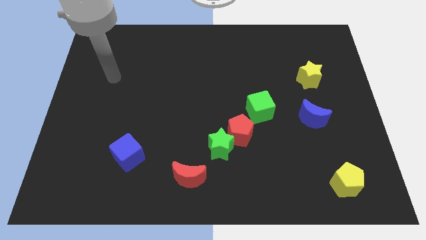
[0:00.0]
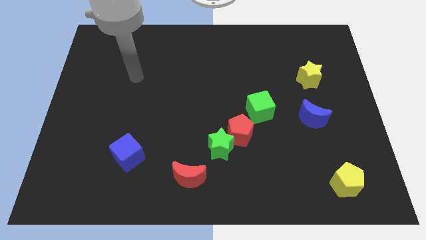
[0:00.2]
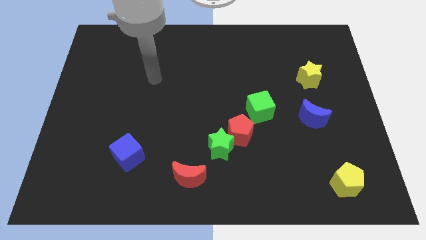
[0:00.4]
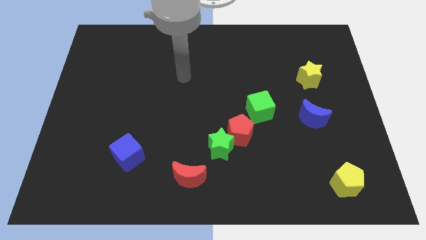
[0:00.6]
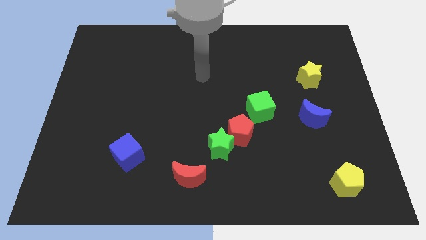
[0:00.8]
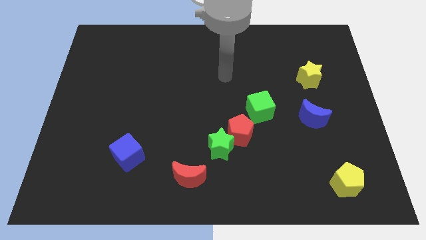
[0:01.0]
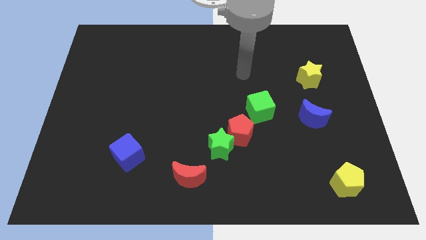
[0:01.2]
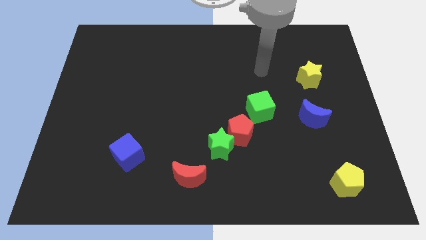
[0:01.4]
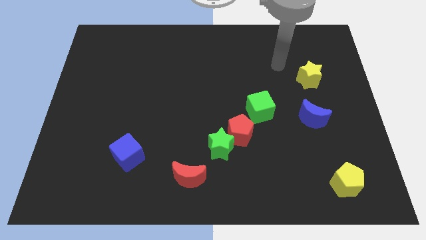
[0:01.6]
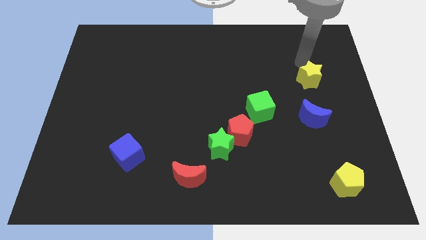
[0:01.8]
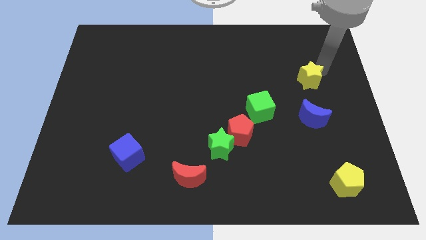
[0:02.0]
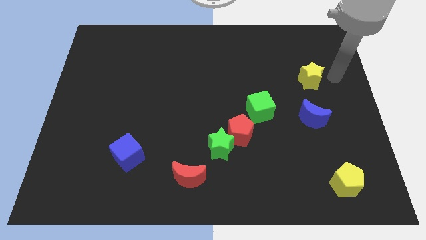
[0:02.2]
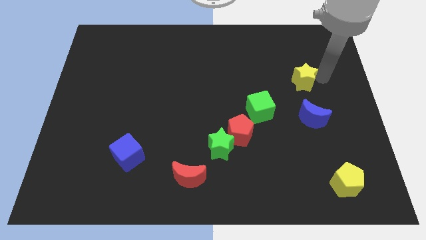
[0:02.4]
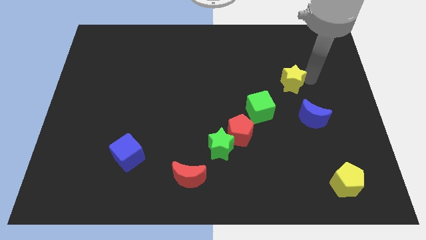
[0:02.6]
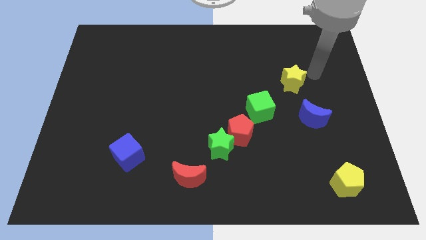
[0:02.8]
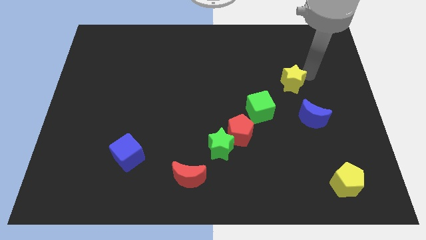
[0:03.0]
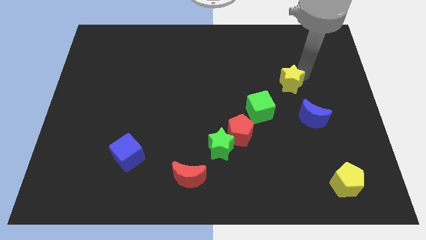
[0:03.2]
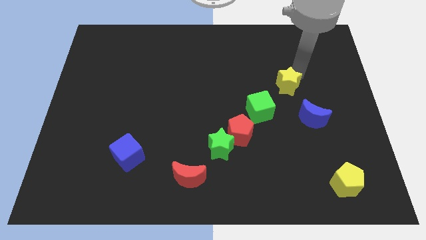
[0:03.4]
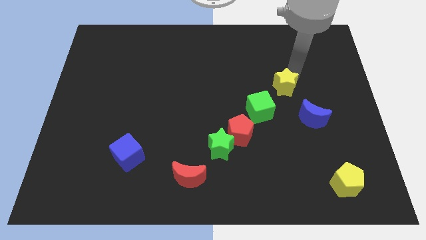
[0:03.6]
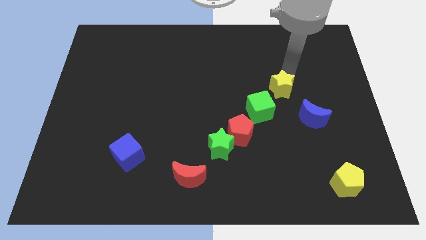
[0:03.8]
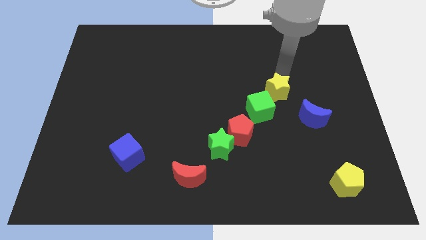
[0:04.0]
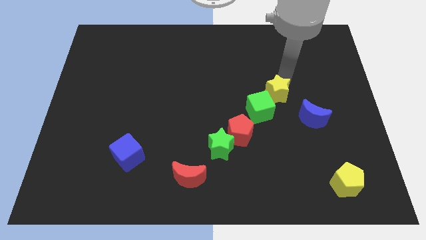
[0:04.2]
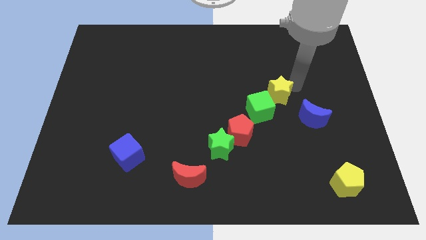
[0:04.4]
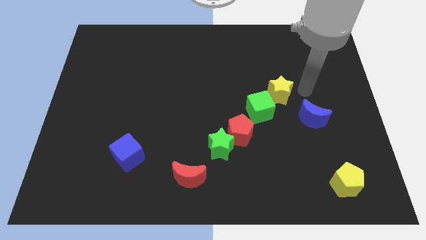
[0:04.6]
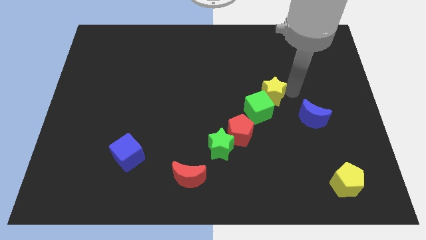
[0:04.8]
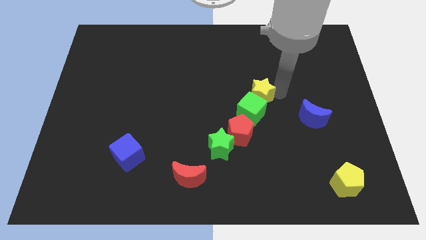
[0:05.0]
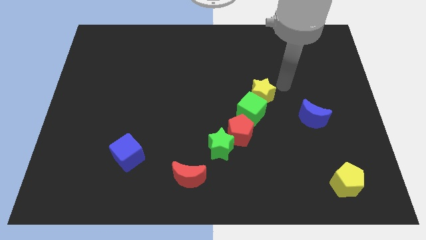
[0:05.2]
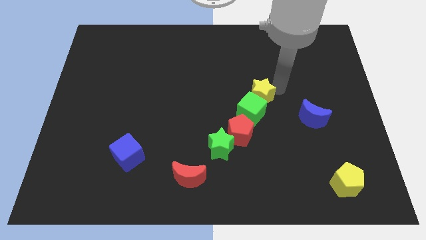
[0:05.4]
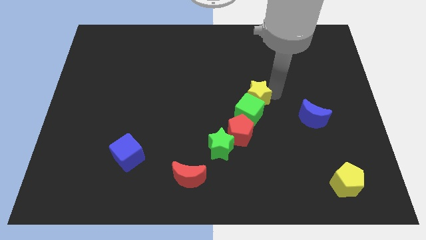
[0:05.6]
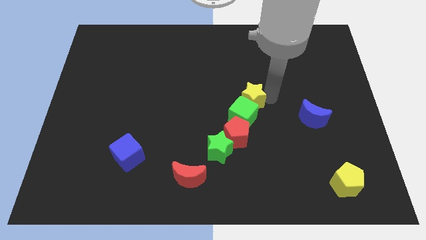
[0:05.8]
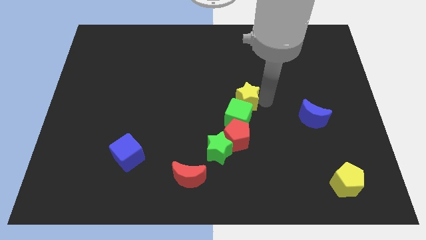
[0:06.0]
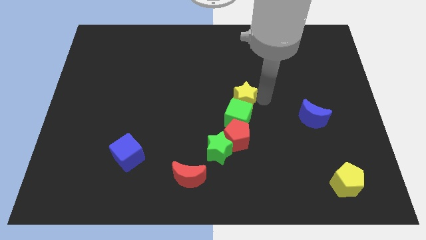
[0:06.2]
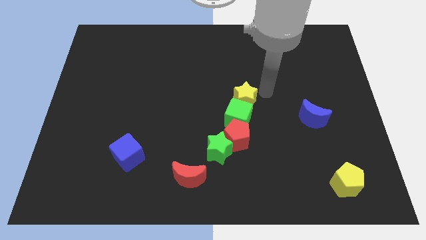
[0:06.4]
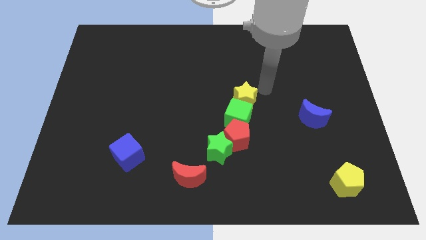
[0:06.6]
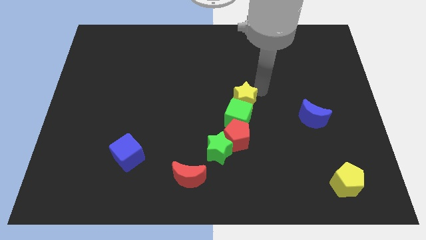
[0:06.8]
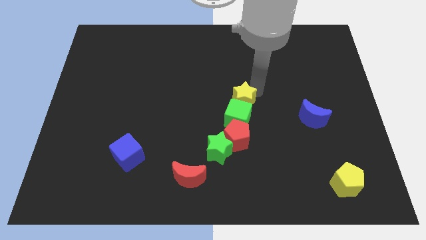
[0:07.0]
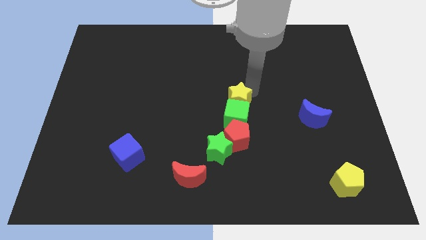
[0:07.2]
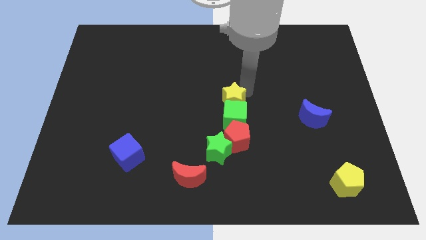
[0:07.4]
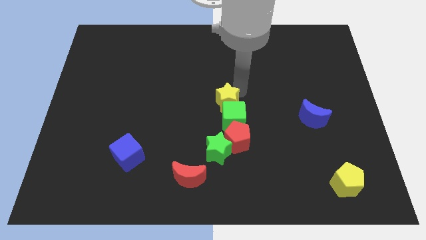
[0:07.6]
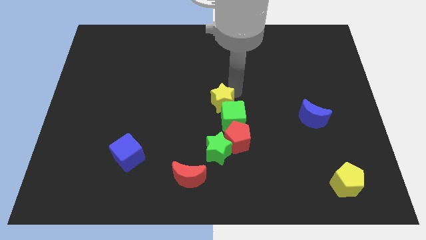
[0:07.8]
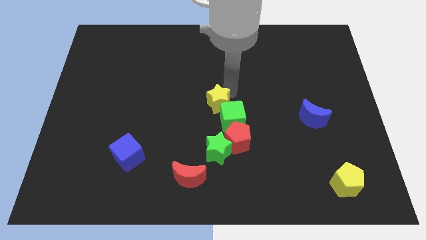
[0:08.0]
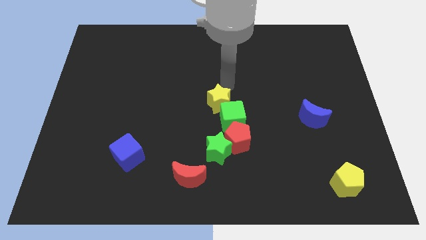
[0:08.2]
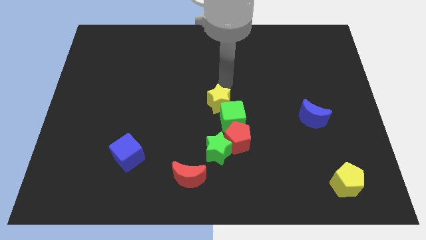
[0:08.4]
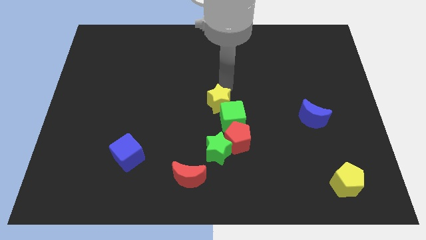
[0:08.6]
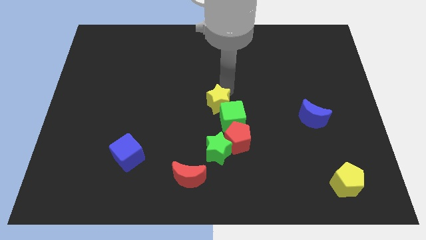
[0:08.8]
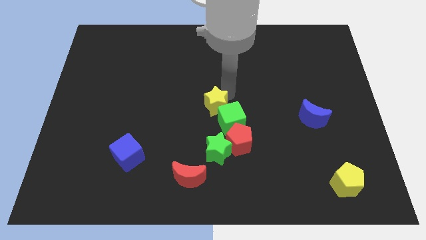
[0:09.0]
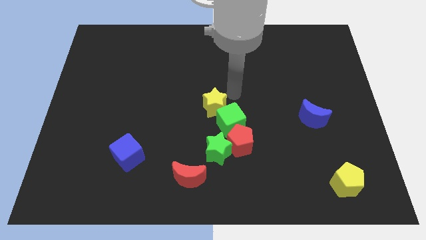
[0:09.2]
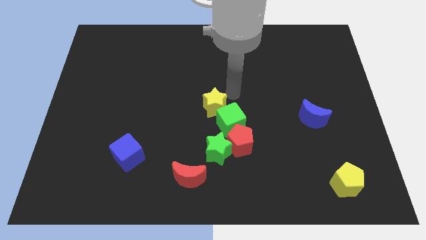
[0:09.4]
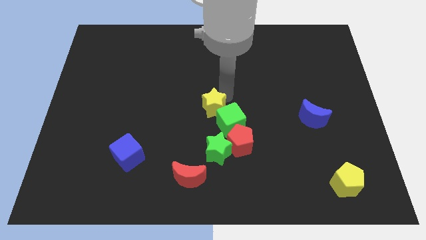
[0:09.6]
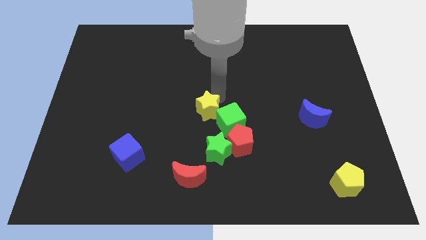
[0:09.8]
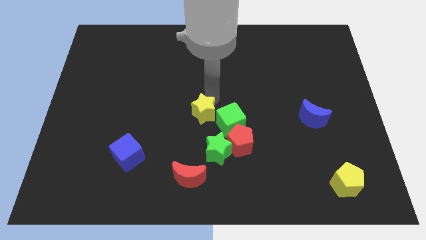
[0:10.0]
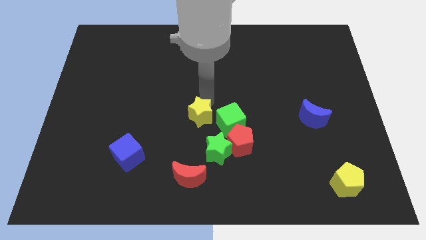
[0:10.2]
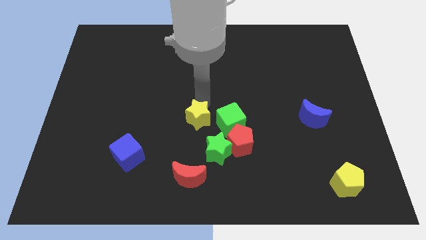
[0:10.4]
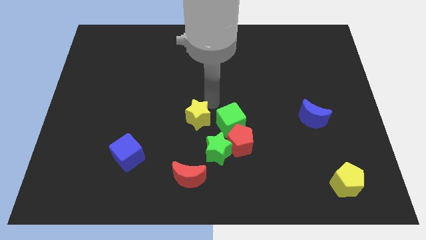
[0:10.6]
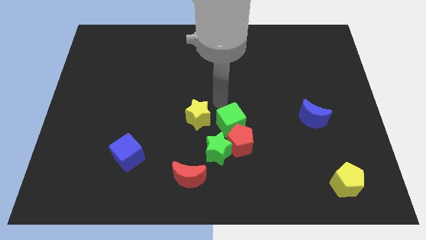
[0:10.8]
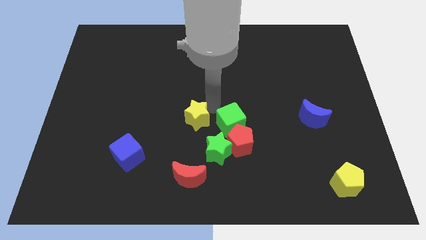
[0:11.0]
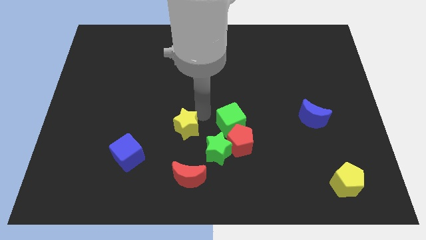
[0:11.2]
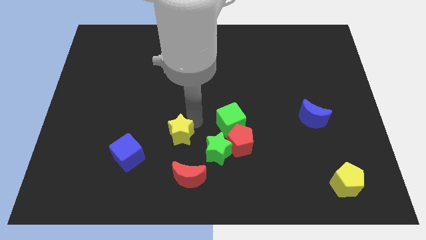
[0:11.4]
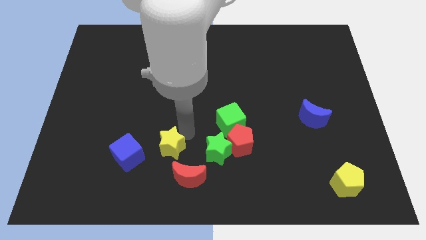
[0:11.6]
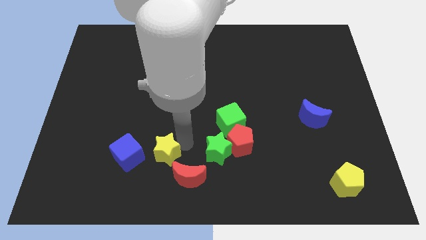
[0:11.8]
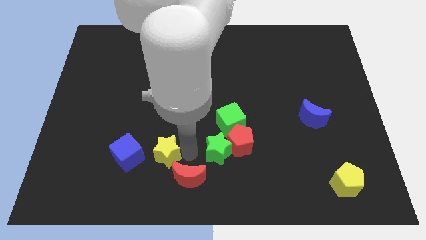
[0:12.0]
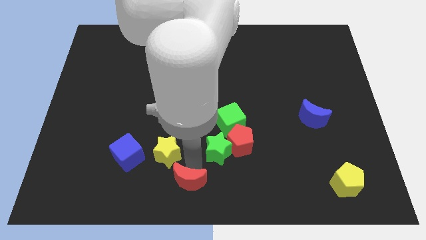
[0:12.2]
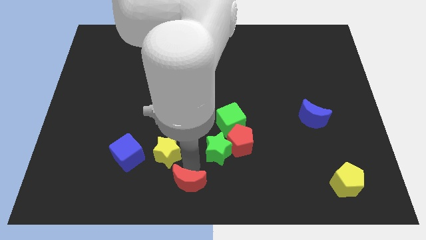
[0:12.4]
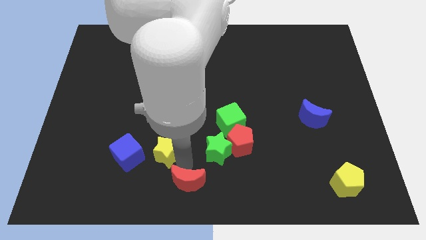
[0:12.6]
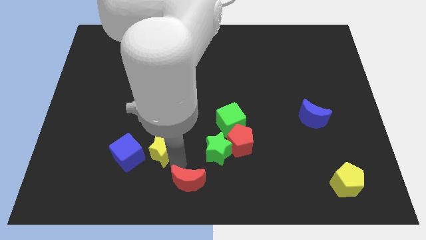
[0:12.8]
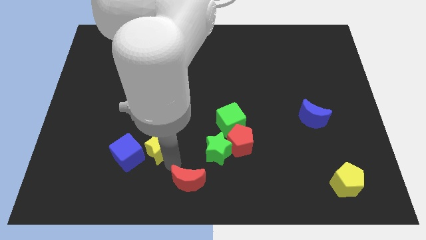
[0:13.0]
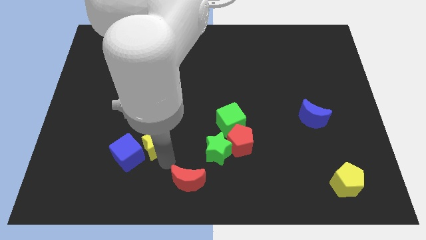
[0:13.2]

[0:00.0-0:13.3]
put the yellow star to the blue cube

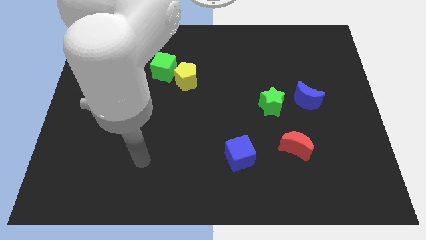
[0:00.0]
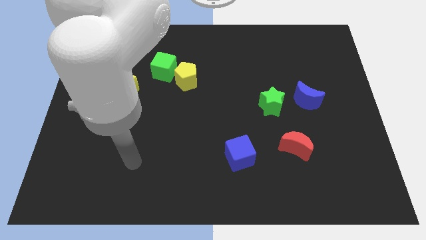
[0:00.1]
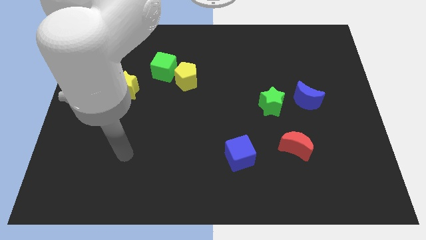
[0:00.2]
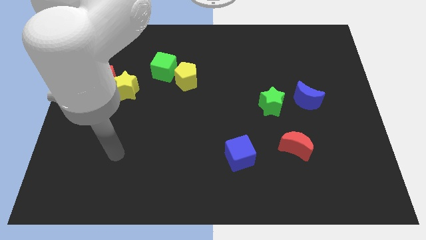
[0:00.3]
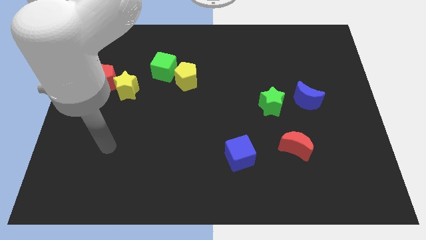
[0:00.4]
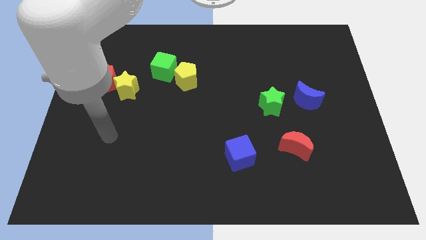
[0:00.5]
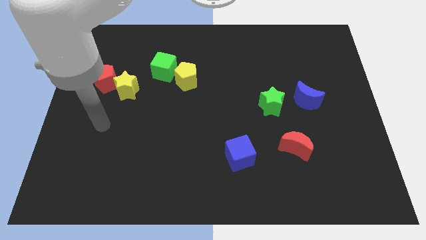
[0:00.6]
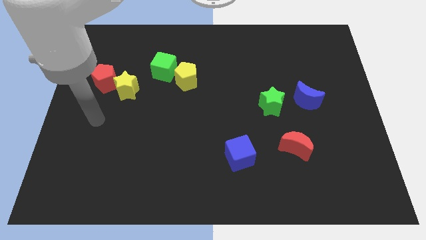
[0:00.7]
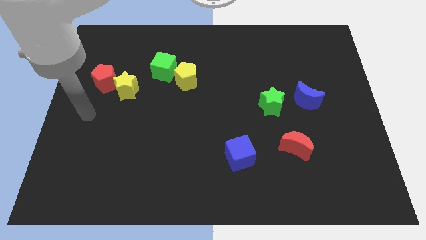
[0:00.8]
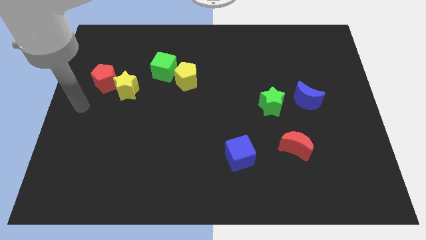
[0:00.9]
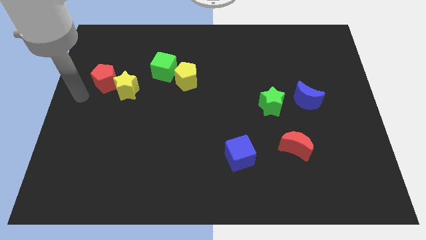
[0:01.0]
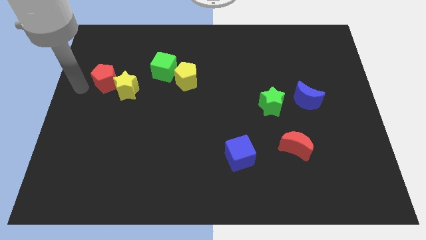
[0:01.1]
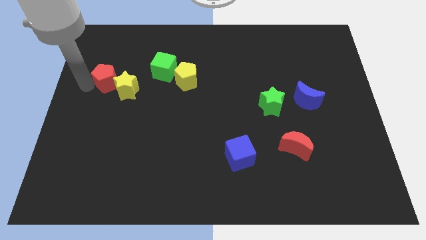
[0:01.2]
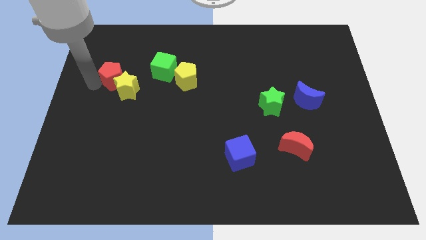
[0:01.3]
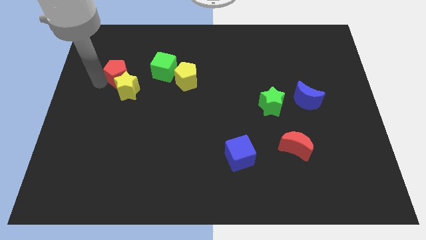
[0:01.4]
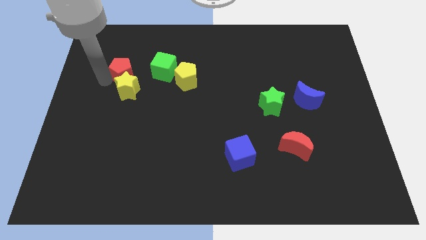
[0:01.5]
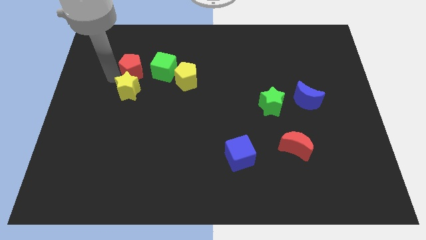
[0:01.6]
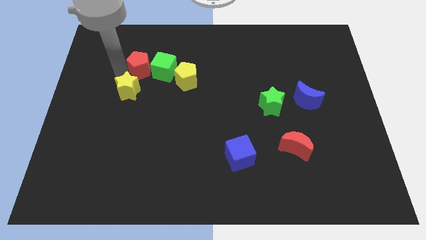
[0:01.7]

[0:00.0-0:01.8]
slide the red pentagon towards the green cube
